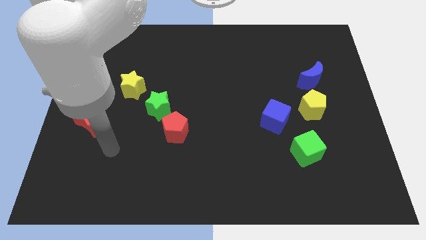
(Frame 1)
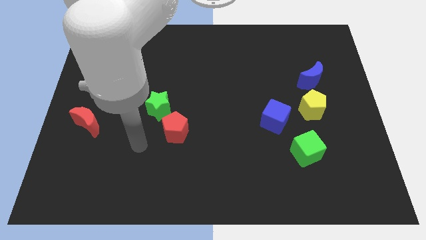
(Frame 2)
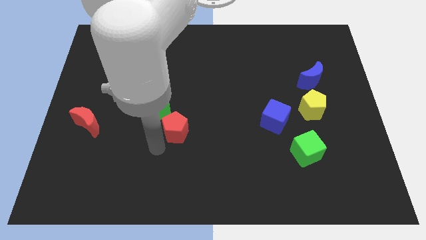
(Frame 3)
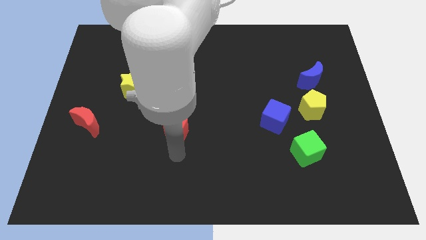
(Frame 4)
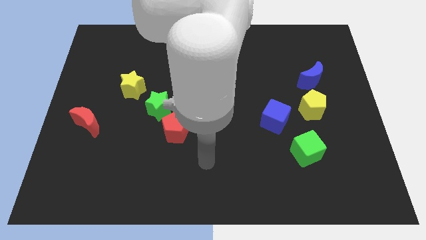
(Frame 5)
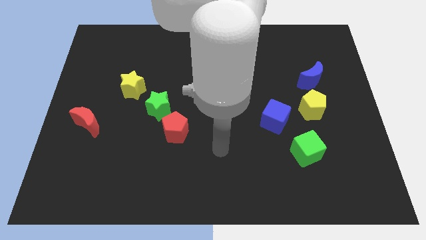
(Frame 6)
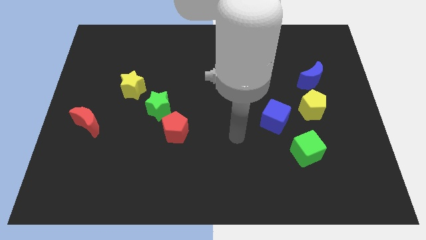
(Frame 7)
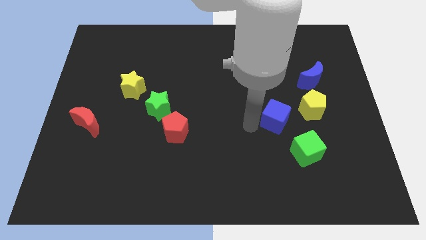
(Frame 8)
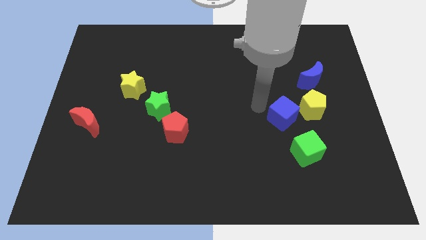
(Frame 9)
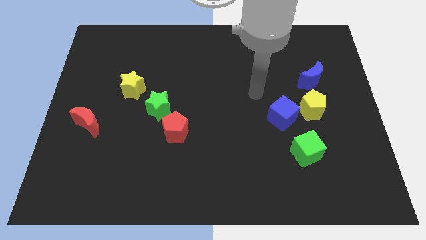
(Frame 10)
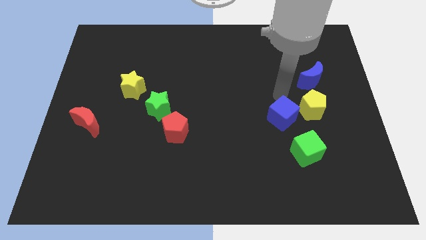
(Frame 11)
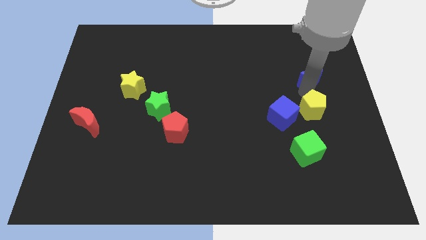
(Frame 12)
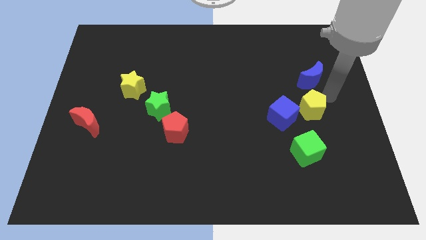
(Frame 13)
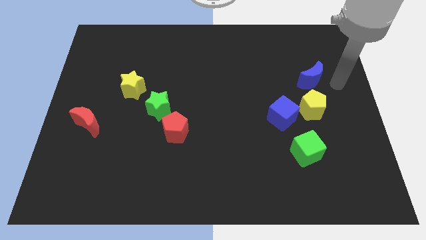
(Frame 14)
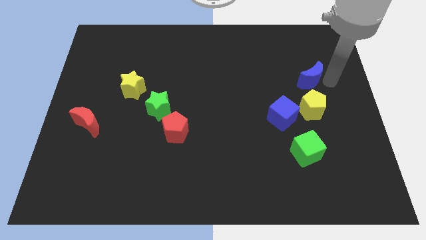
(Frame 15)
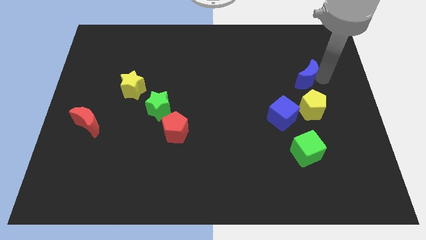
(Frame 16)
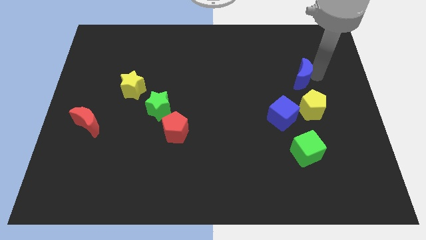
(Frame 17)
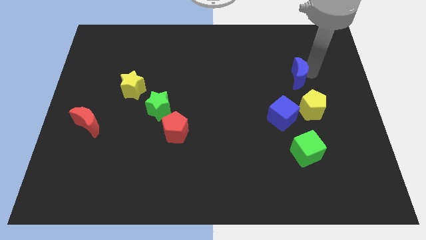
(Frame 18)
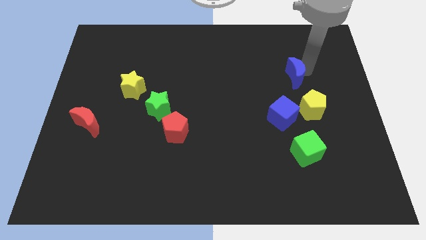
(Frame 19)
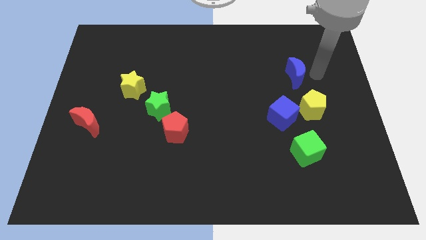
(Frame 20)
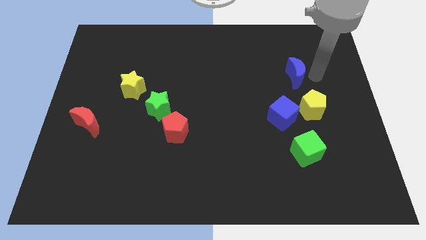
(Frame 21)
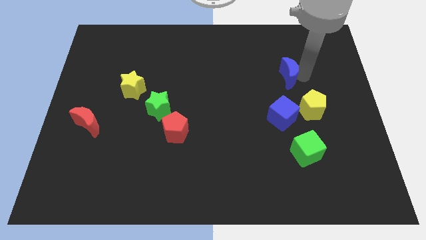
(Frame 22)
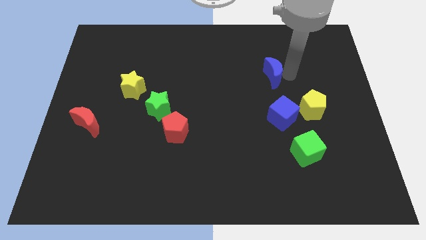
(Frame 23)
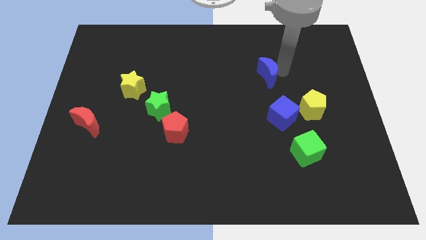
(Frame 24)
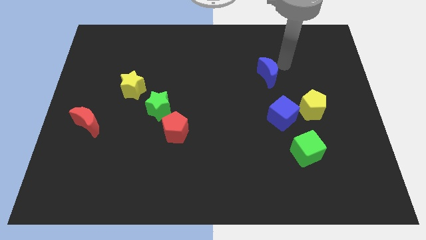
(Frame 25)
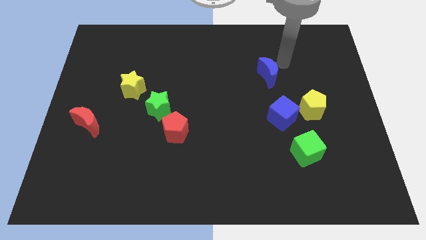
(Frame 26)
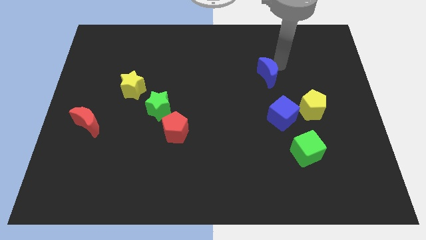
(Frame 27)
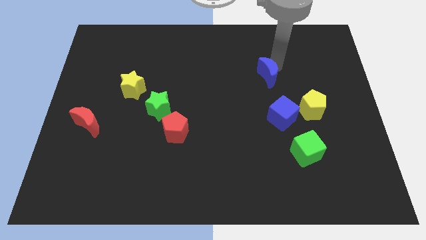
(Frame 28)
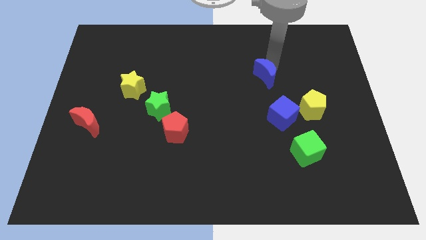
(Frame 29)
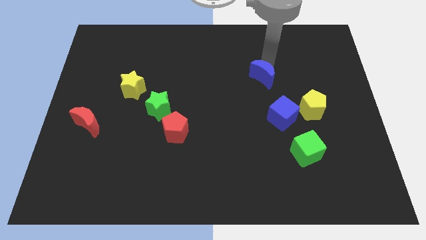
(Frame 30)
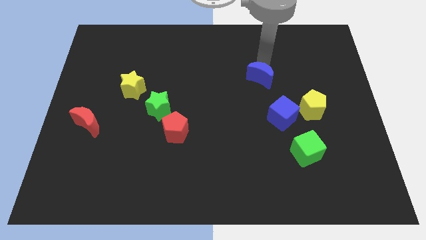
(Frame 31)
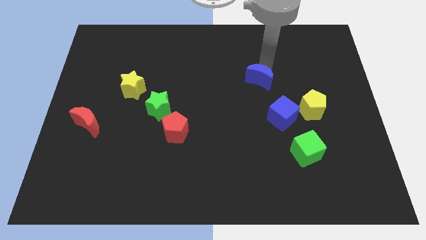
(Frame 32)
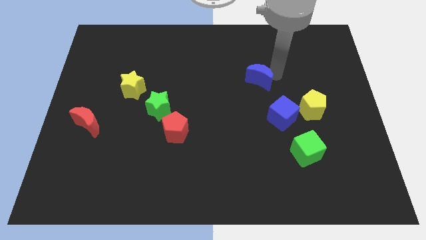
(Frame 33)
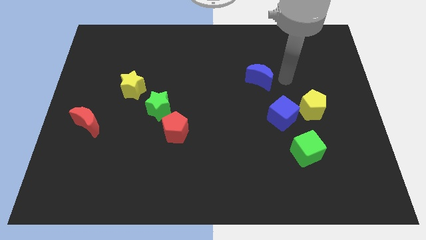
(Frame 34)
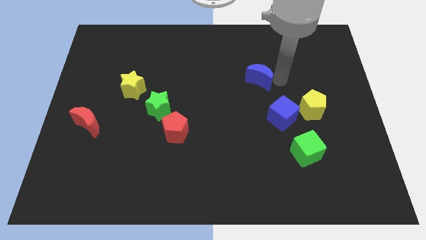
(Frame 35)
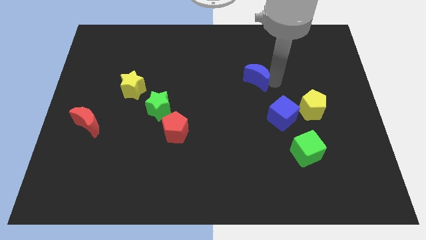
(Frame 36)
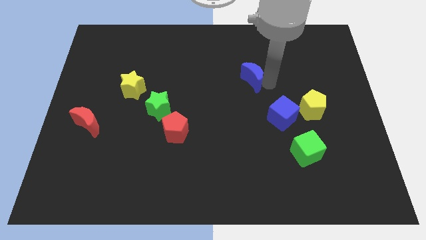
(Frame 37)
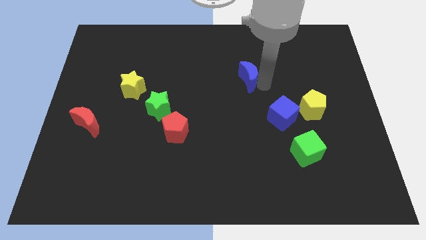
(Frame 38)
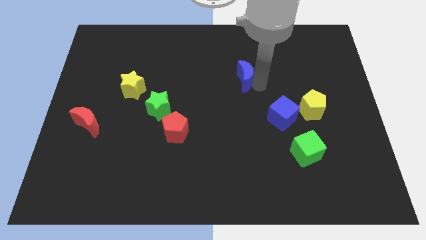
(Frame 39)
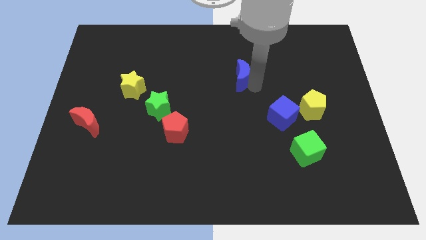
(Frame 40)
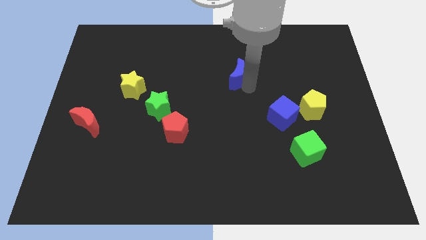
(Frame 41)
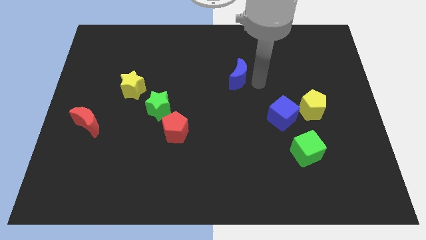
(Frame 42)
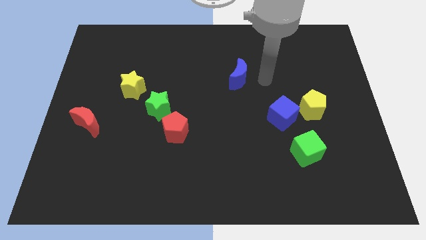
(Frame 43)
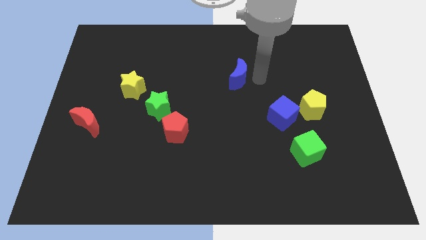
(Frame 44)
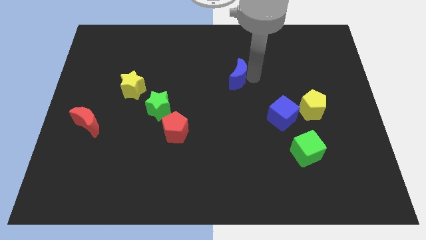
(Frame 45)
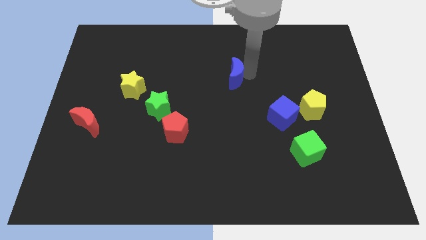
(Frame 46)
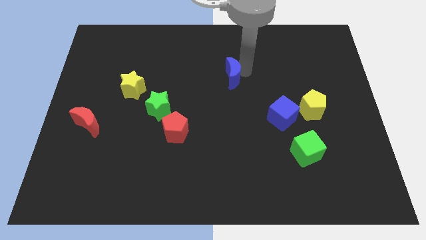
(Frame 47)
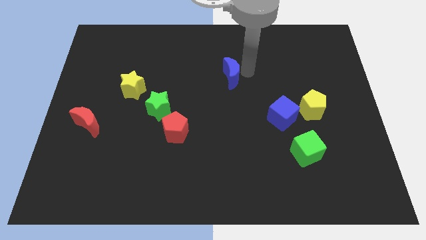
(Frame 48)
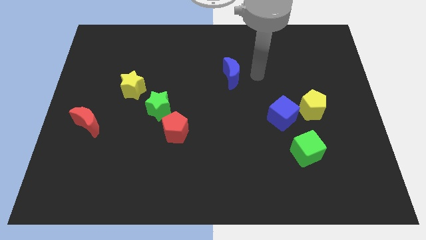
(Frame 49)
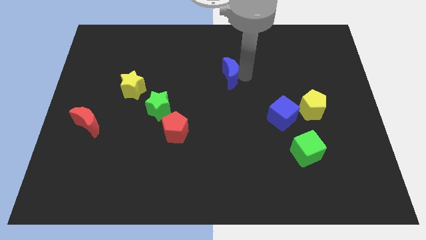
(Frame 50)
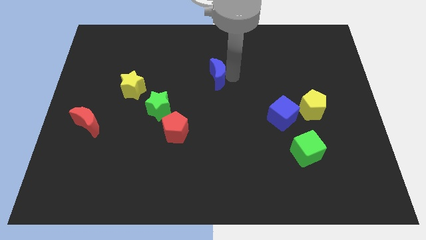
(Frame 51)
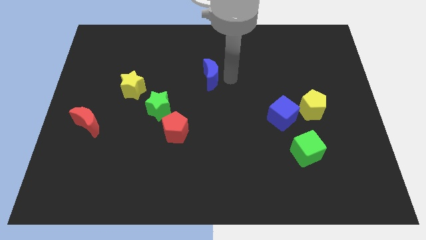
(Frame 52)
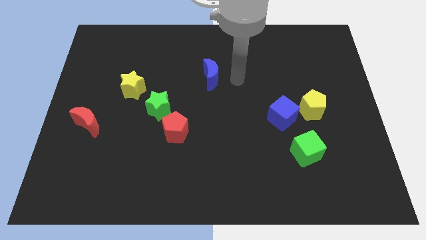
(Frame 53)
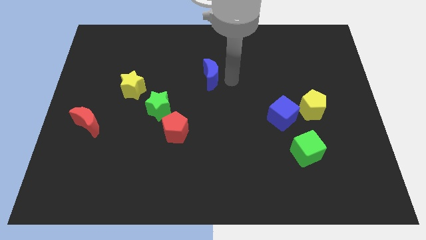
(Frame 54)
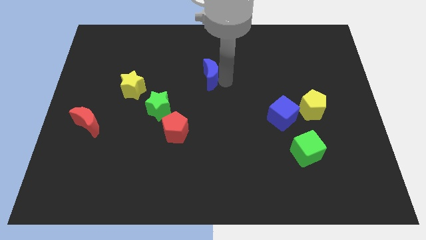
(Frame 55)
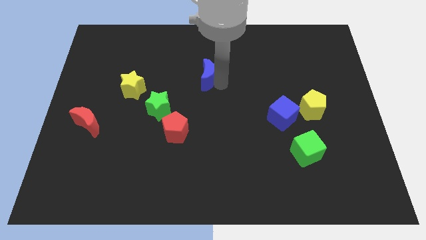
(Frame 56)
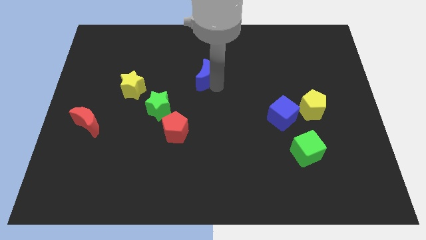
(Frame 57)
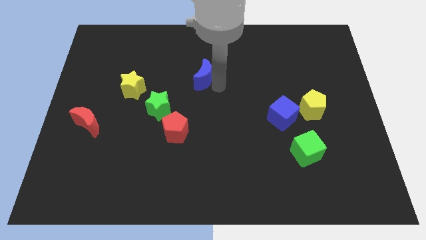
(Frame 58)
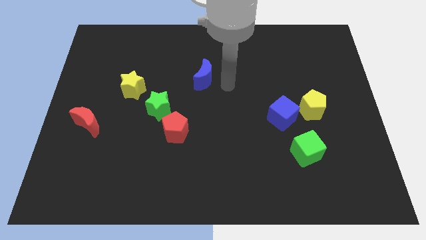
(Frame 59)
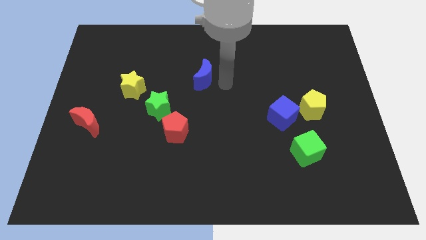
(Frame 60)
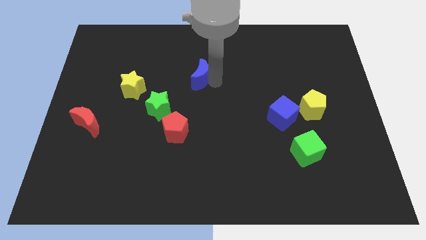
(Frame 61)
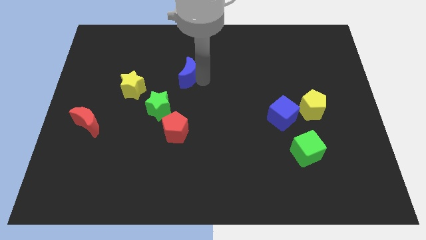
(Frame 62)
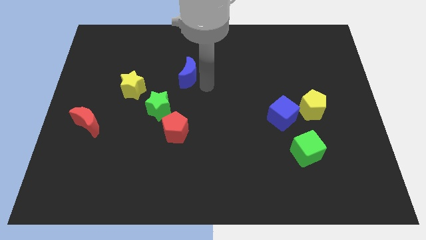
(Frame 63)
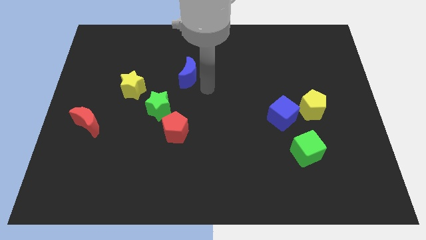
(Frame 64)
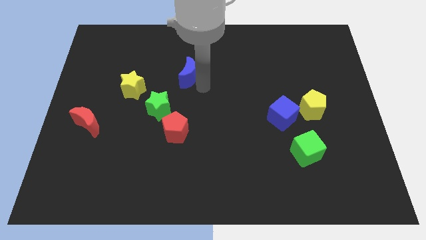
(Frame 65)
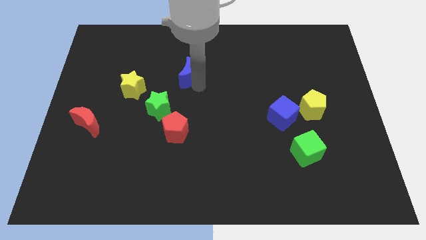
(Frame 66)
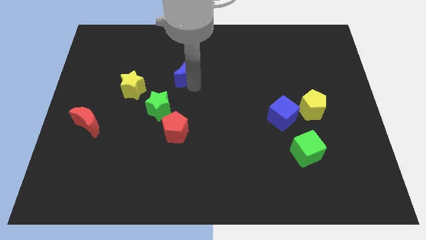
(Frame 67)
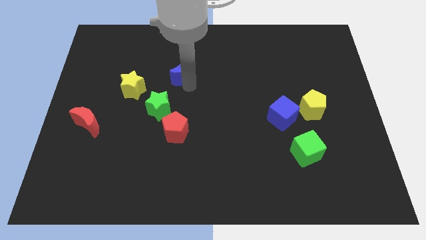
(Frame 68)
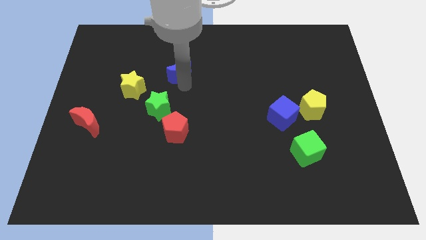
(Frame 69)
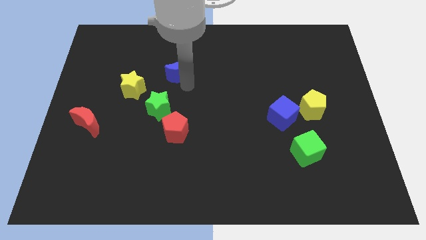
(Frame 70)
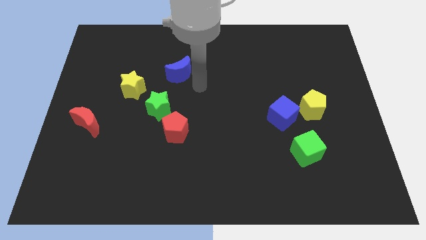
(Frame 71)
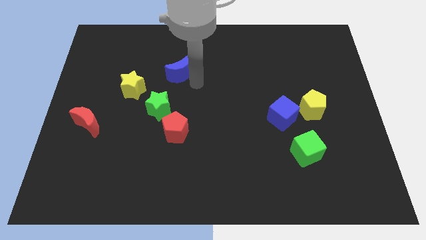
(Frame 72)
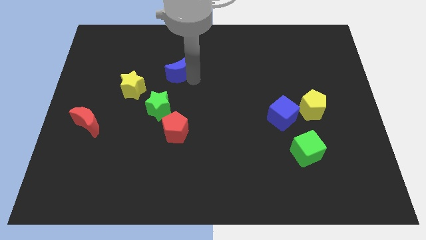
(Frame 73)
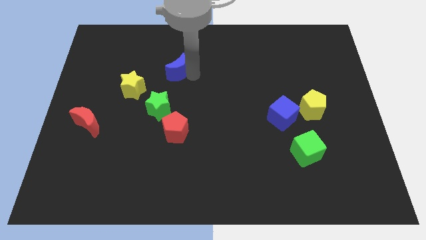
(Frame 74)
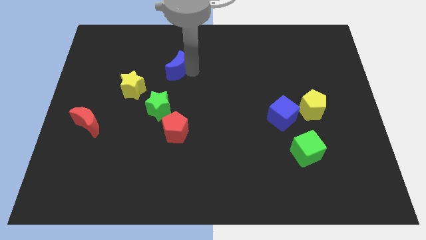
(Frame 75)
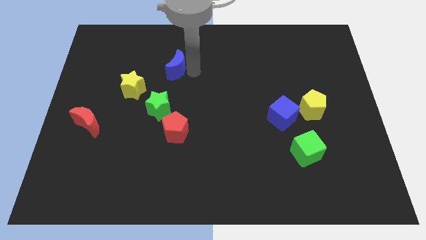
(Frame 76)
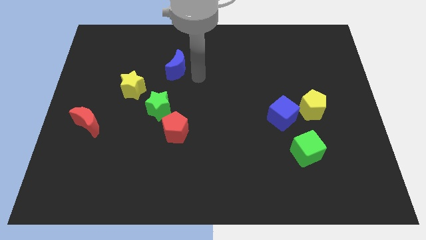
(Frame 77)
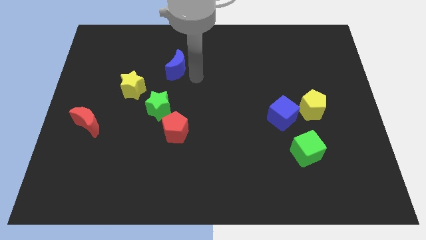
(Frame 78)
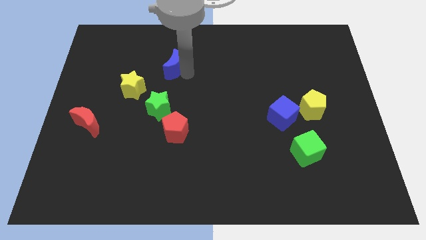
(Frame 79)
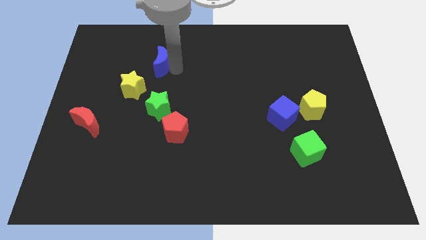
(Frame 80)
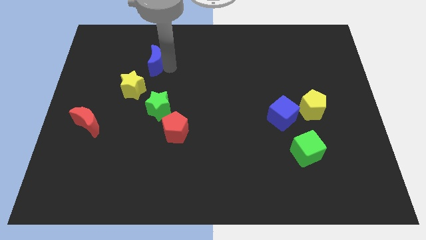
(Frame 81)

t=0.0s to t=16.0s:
slide the blue moon above the yellow star

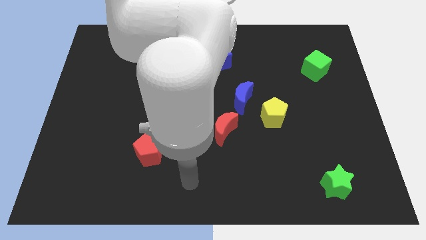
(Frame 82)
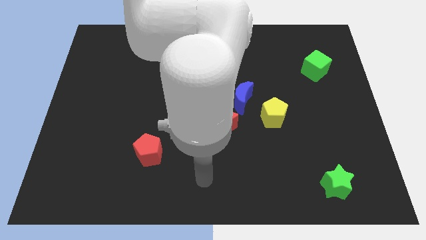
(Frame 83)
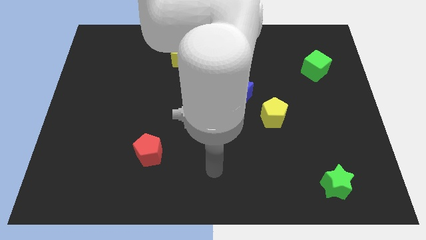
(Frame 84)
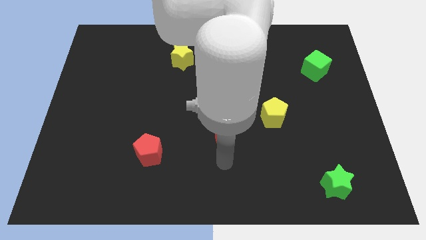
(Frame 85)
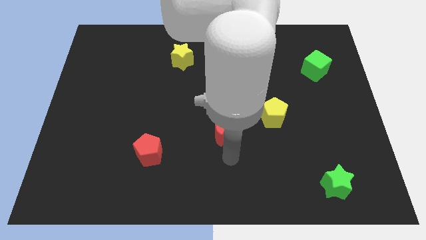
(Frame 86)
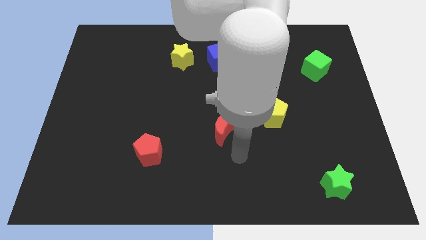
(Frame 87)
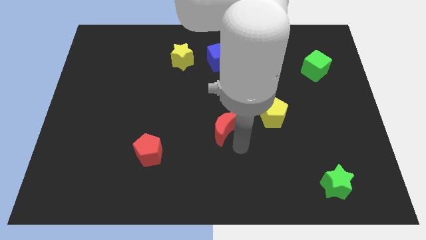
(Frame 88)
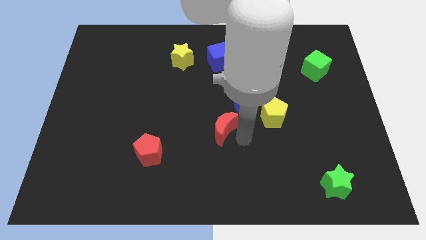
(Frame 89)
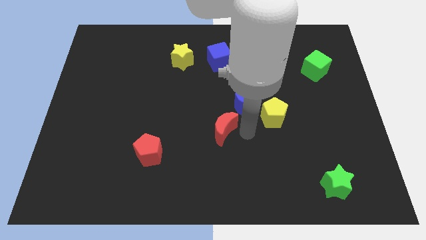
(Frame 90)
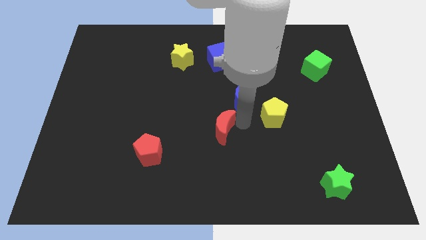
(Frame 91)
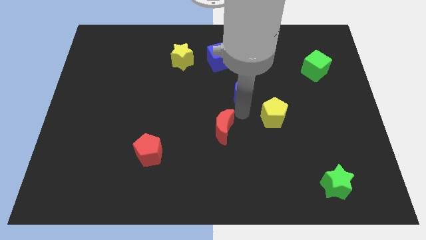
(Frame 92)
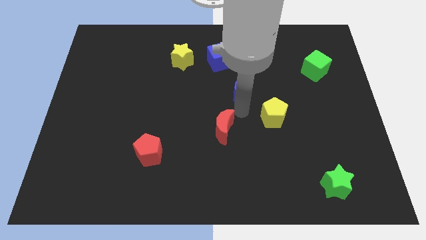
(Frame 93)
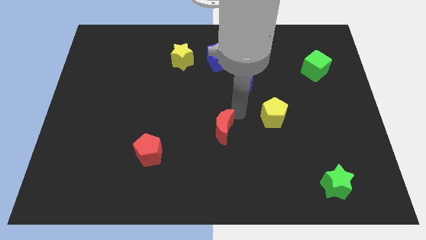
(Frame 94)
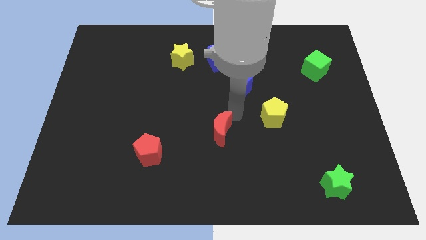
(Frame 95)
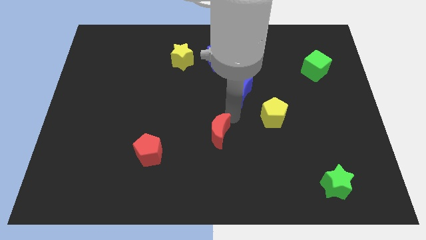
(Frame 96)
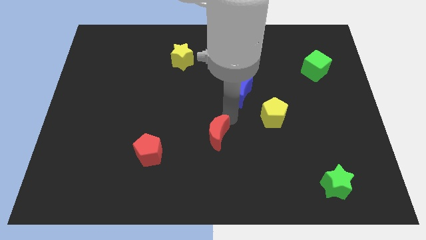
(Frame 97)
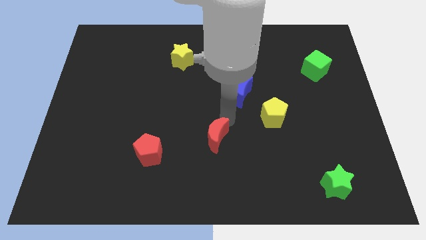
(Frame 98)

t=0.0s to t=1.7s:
push the red moon to the right of the red pentagon
